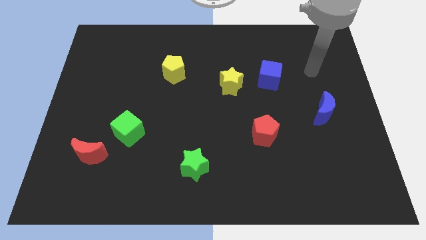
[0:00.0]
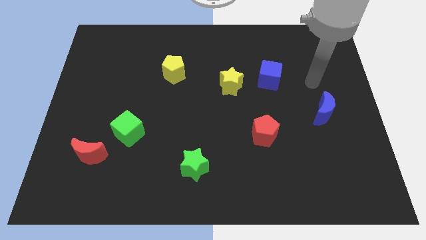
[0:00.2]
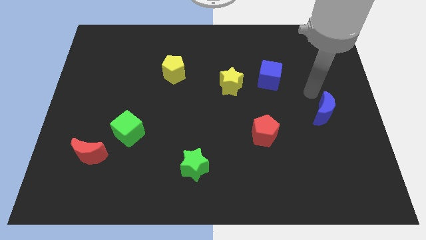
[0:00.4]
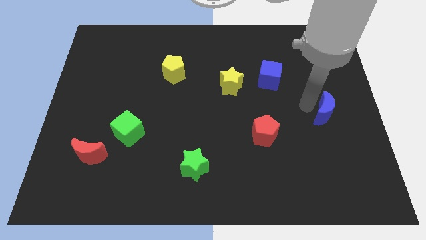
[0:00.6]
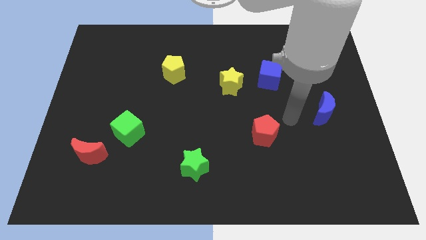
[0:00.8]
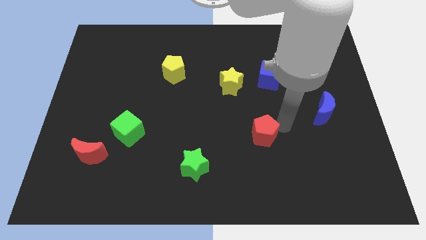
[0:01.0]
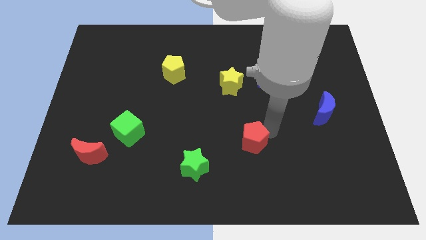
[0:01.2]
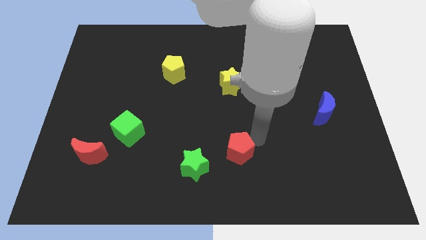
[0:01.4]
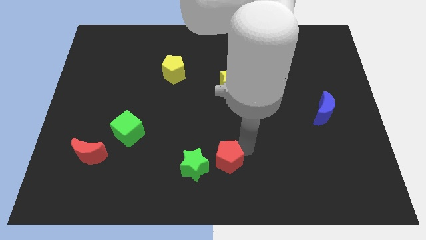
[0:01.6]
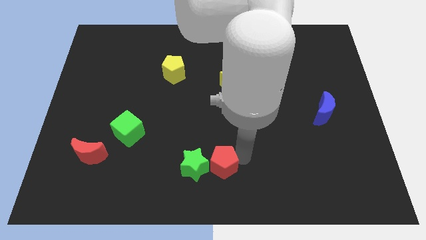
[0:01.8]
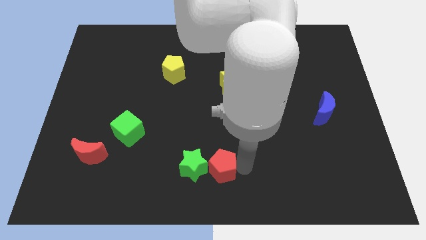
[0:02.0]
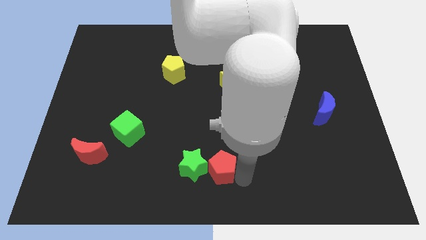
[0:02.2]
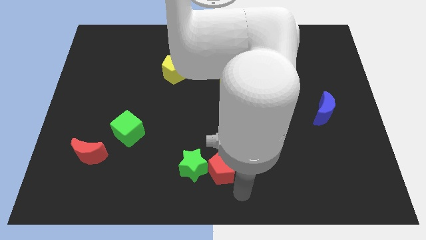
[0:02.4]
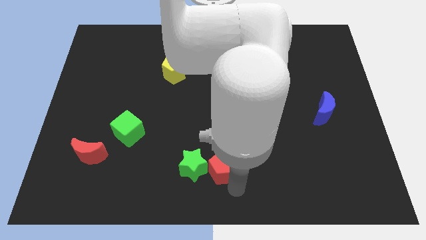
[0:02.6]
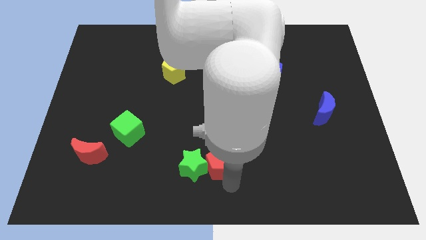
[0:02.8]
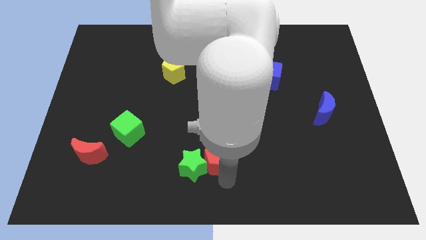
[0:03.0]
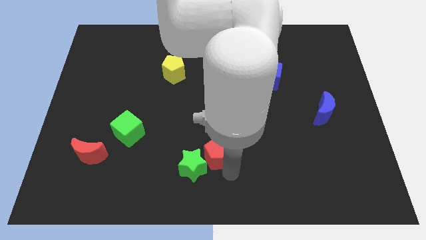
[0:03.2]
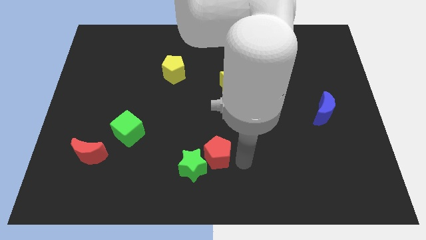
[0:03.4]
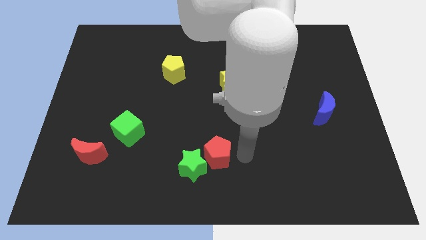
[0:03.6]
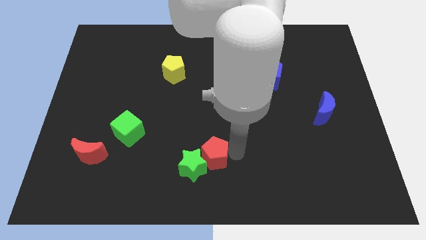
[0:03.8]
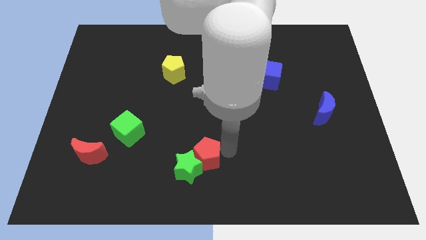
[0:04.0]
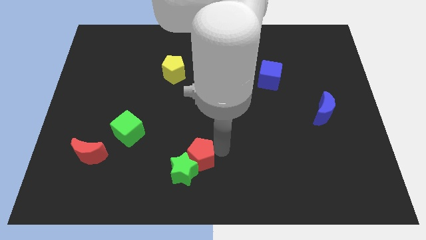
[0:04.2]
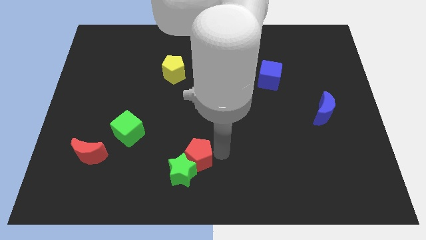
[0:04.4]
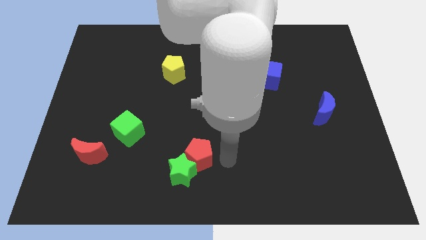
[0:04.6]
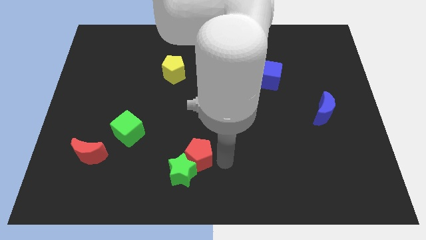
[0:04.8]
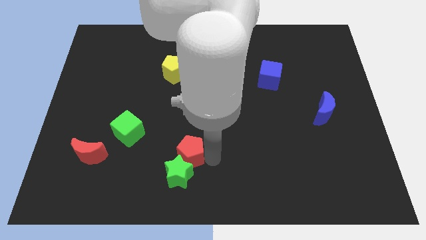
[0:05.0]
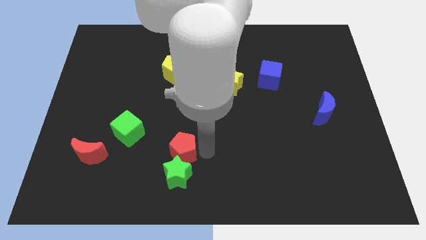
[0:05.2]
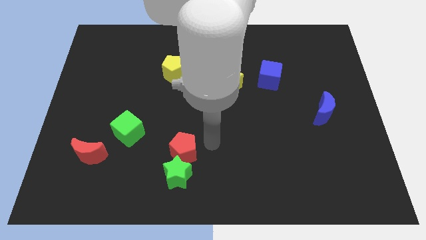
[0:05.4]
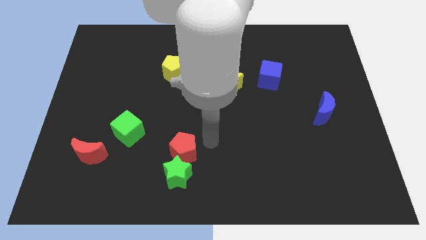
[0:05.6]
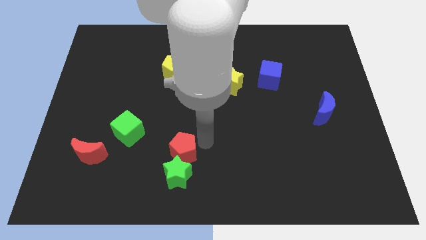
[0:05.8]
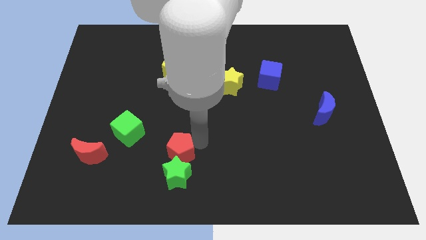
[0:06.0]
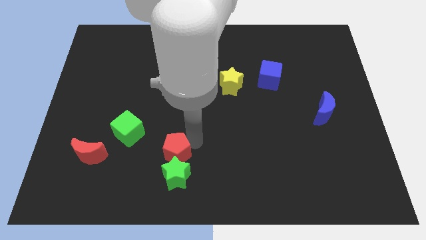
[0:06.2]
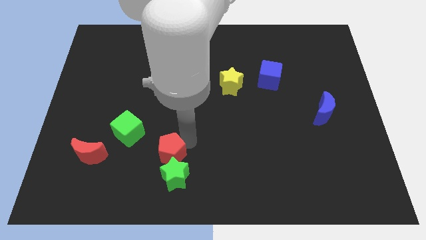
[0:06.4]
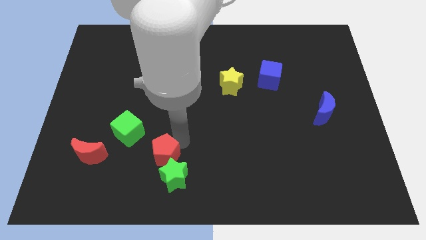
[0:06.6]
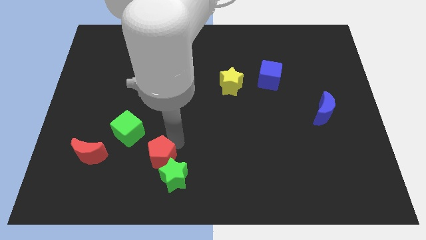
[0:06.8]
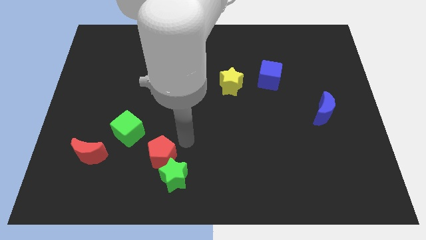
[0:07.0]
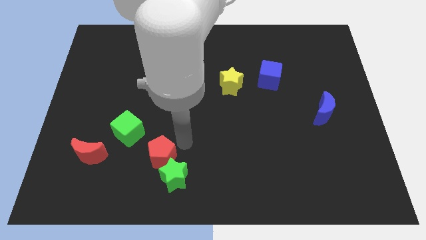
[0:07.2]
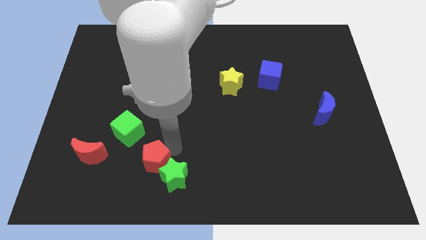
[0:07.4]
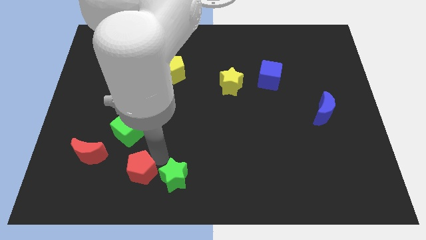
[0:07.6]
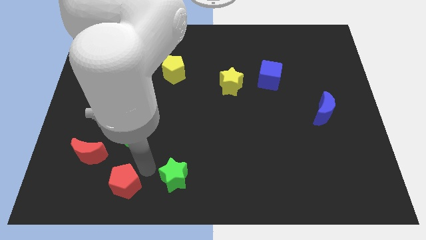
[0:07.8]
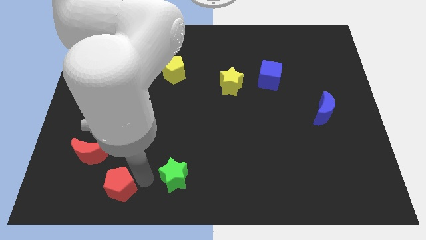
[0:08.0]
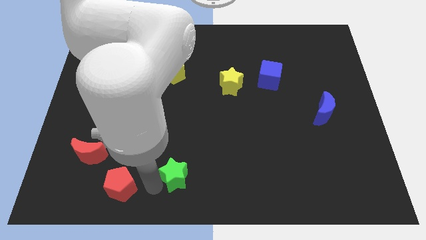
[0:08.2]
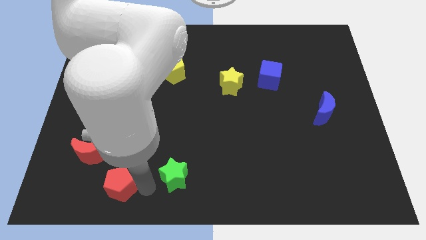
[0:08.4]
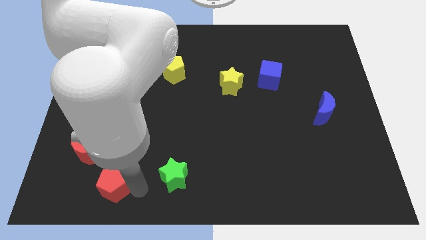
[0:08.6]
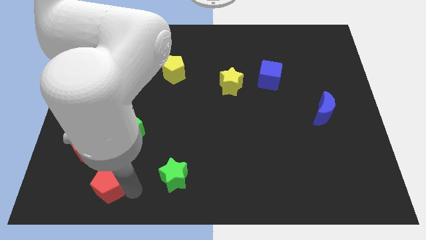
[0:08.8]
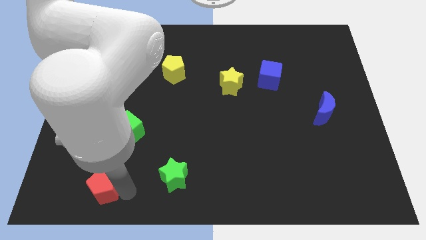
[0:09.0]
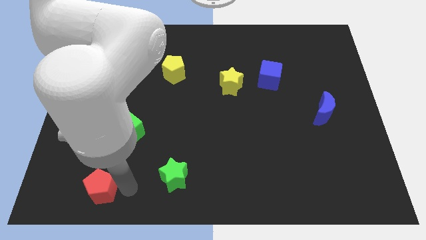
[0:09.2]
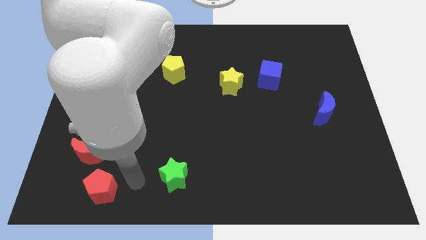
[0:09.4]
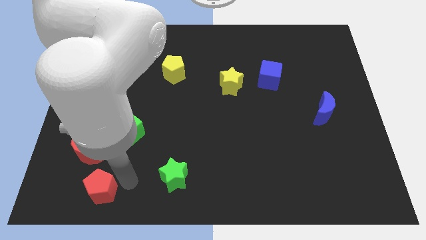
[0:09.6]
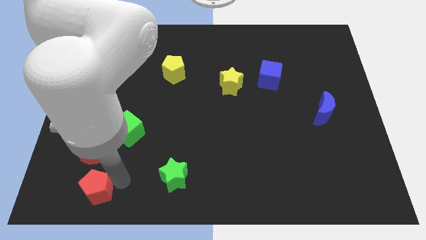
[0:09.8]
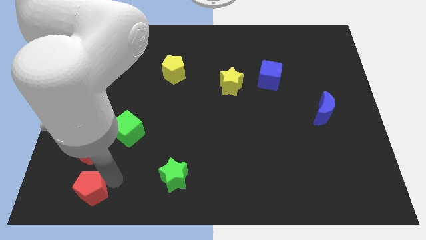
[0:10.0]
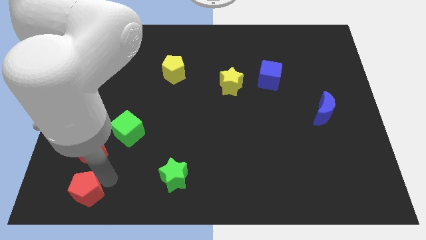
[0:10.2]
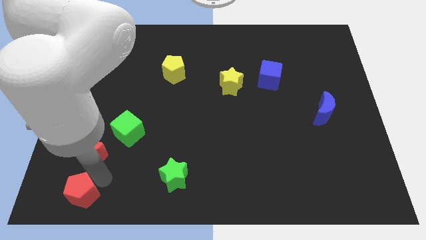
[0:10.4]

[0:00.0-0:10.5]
slide the red pentagon to the bottom left corner

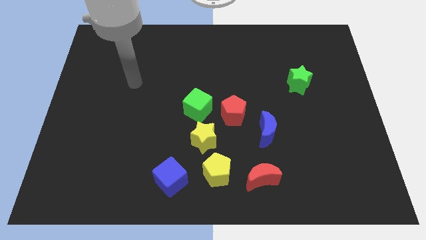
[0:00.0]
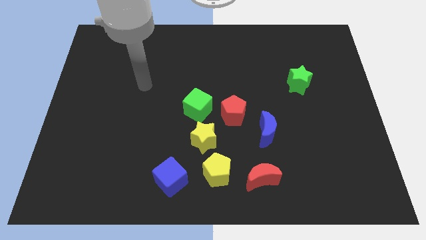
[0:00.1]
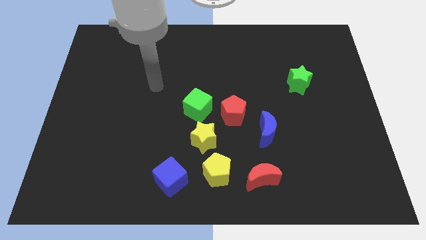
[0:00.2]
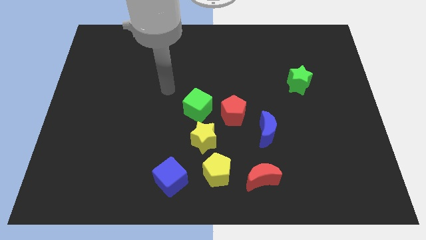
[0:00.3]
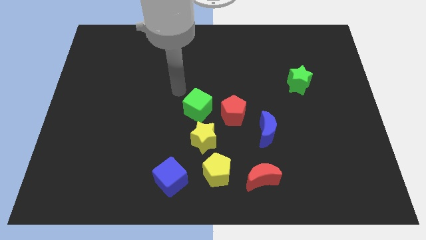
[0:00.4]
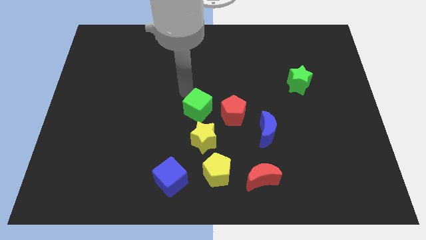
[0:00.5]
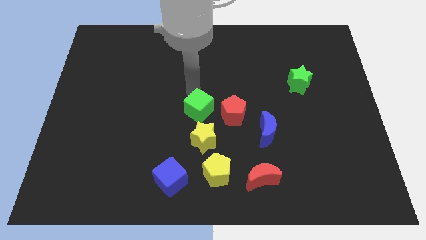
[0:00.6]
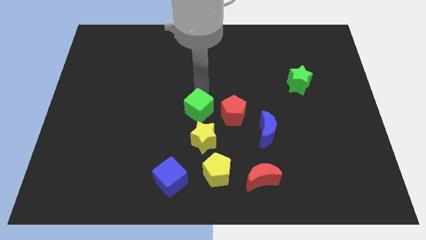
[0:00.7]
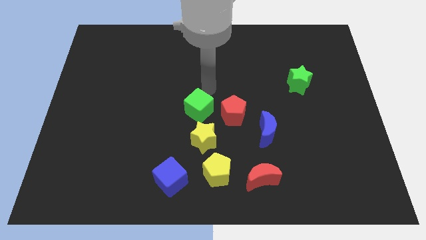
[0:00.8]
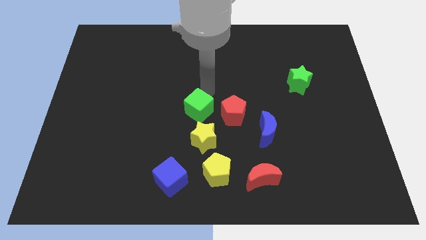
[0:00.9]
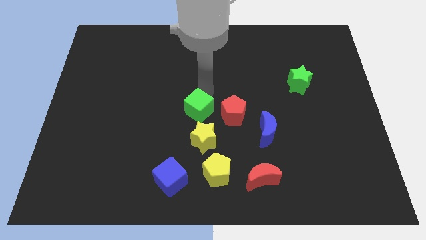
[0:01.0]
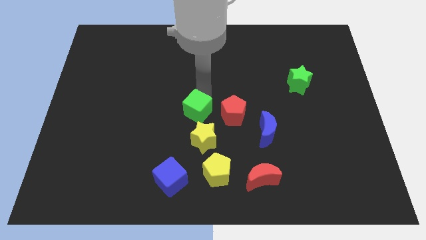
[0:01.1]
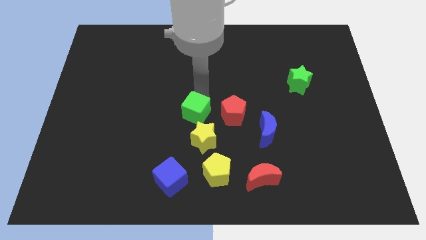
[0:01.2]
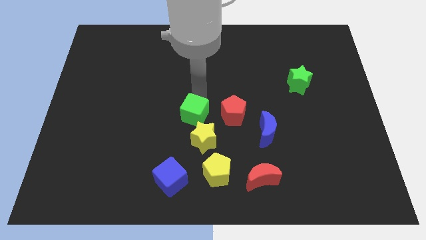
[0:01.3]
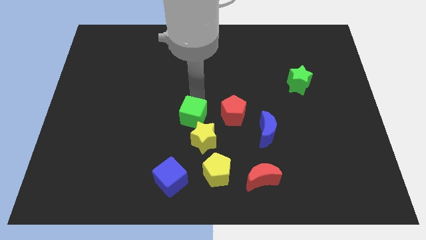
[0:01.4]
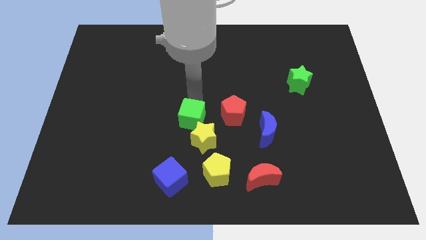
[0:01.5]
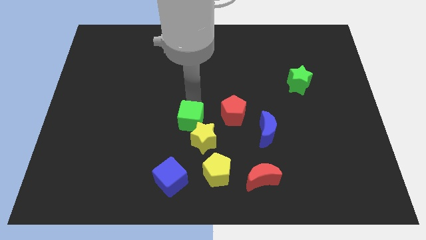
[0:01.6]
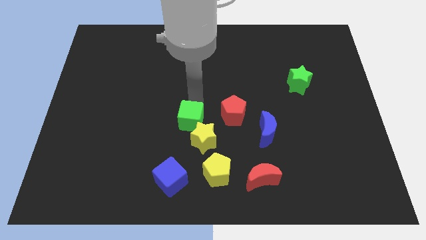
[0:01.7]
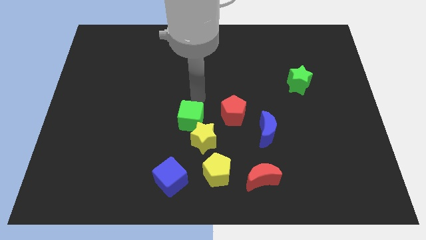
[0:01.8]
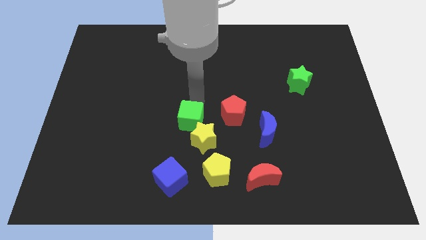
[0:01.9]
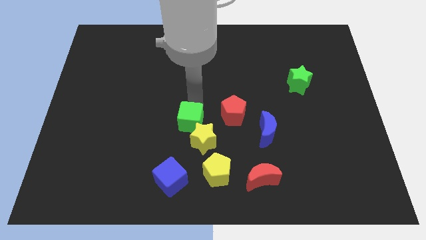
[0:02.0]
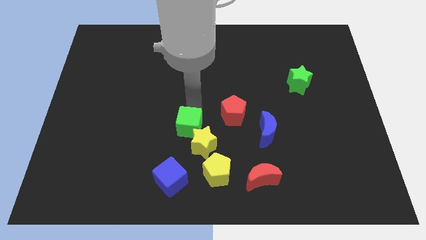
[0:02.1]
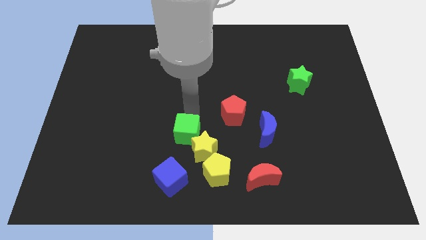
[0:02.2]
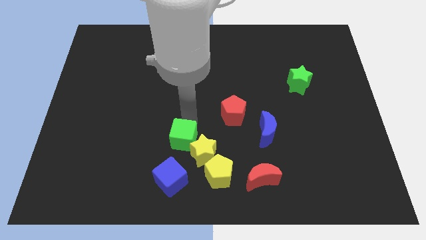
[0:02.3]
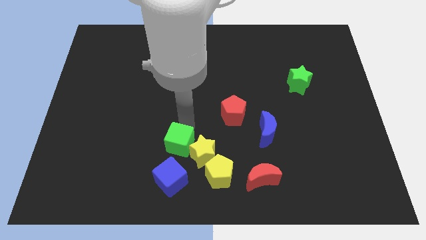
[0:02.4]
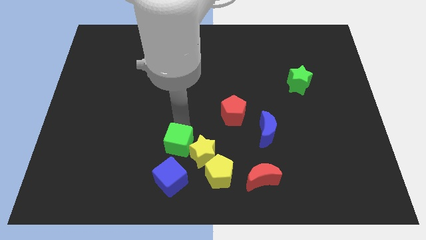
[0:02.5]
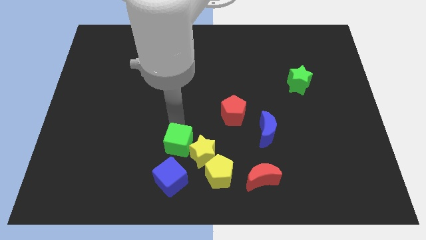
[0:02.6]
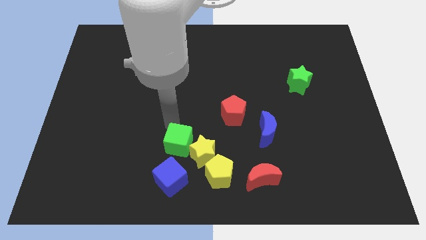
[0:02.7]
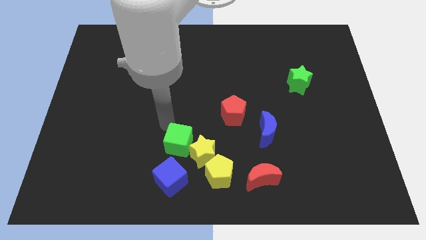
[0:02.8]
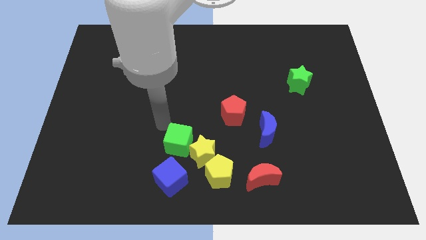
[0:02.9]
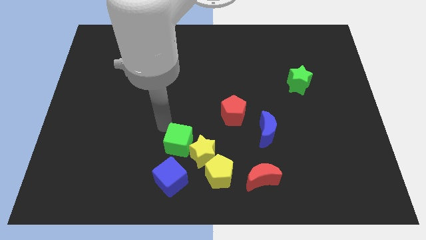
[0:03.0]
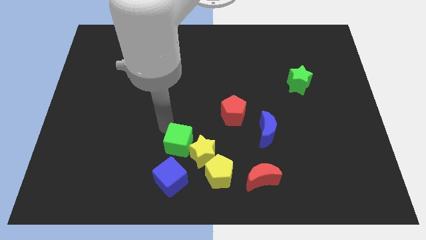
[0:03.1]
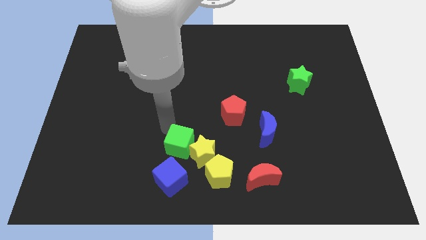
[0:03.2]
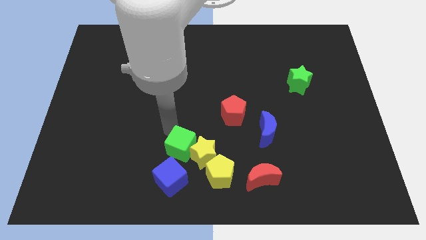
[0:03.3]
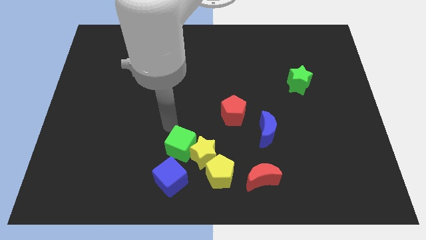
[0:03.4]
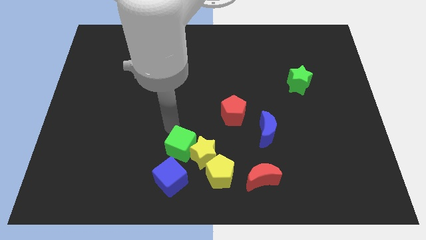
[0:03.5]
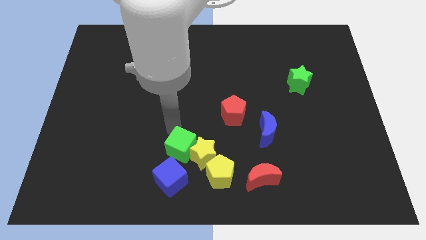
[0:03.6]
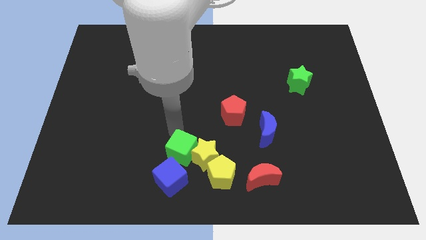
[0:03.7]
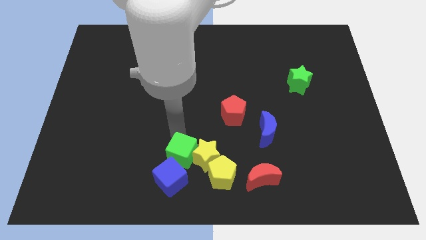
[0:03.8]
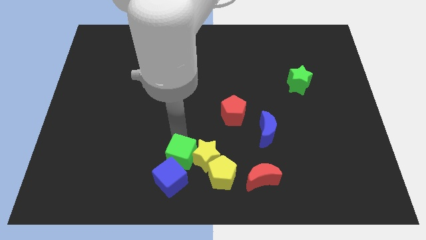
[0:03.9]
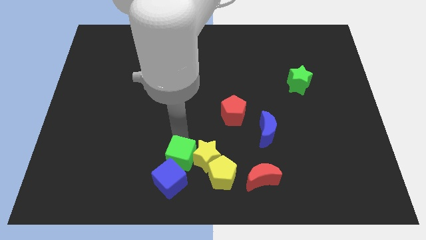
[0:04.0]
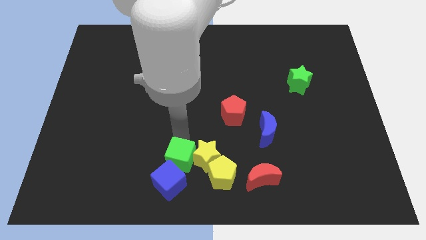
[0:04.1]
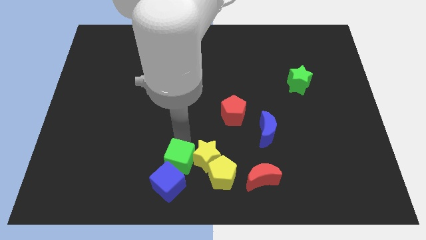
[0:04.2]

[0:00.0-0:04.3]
move the green cube to the bottom
